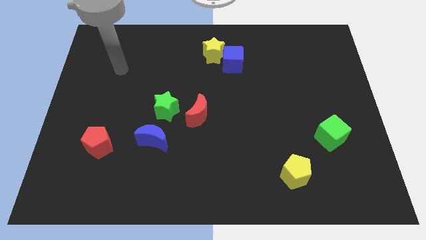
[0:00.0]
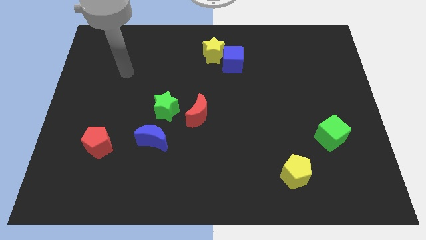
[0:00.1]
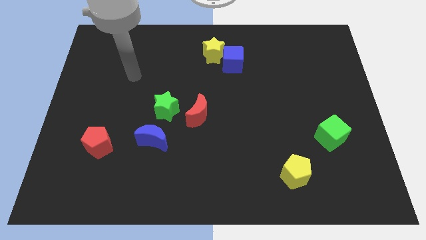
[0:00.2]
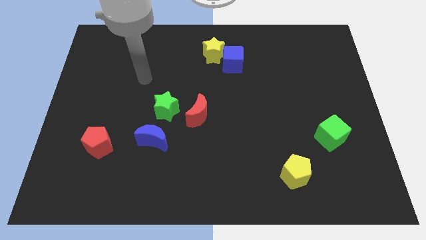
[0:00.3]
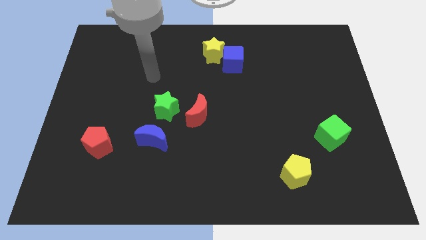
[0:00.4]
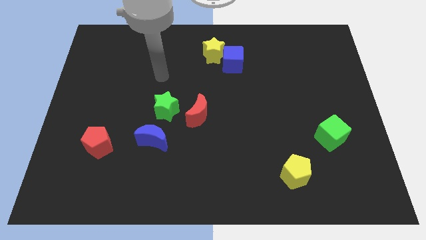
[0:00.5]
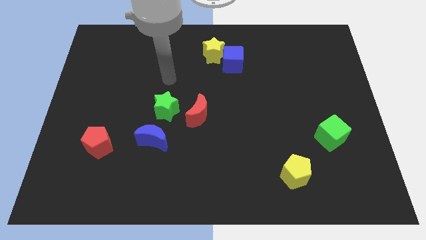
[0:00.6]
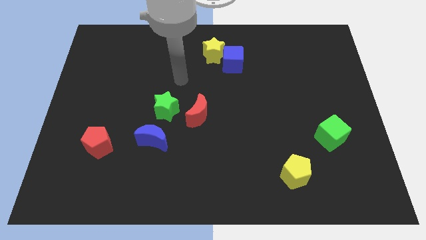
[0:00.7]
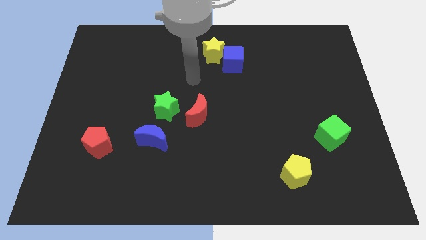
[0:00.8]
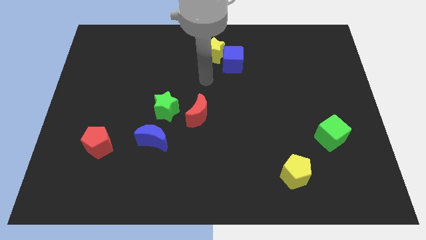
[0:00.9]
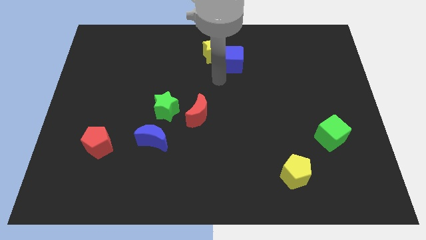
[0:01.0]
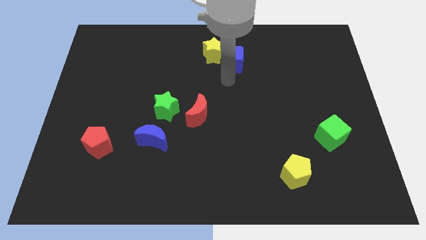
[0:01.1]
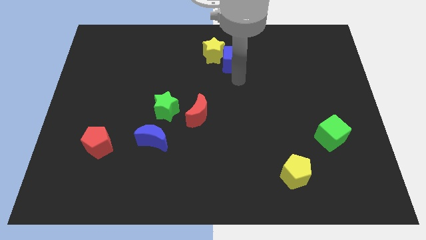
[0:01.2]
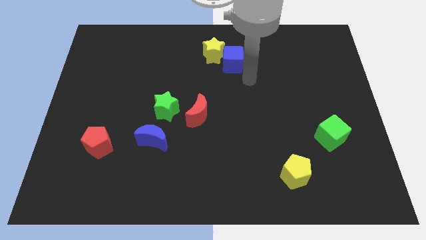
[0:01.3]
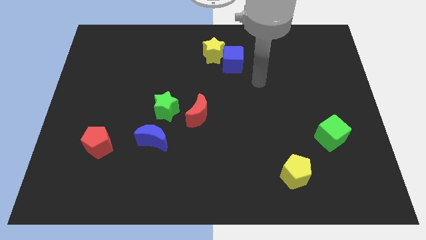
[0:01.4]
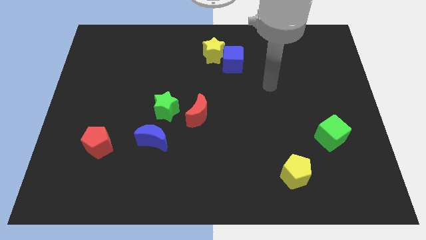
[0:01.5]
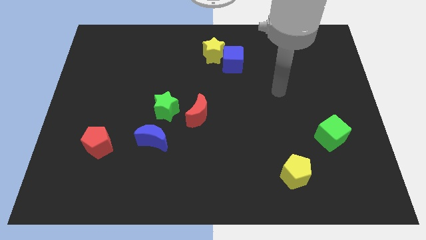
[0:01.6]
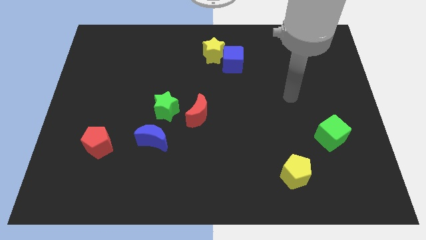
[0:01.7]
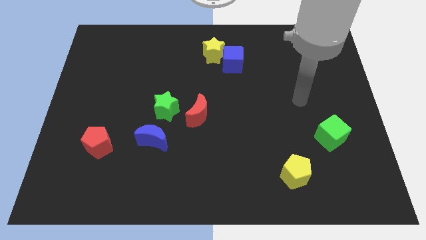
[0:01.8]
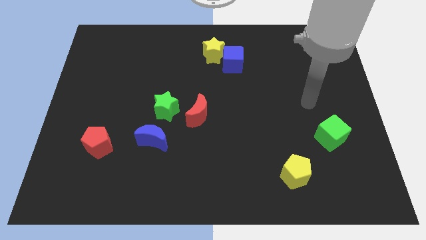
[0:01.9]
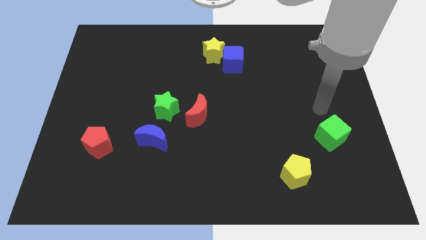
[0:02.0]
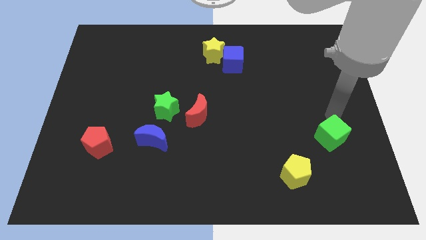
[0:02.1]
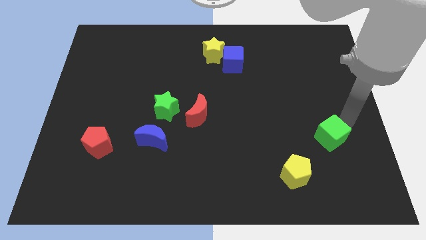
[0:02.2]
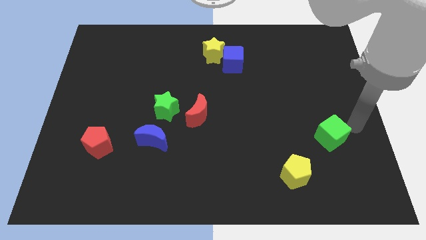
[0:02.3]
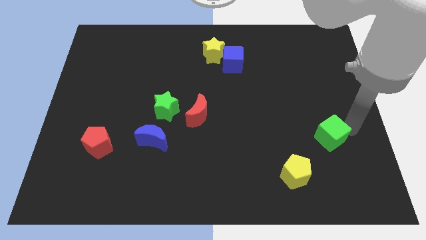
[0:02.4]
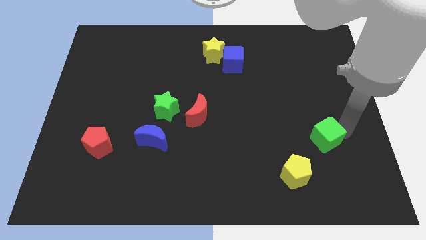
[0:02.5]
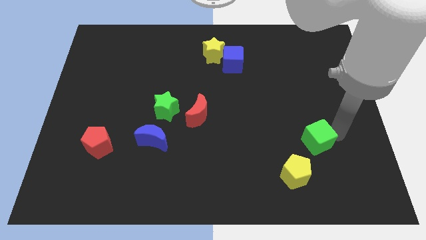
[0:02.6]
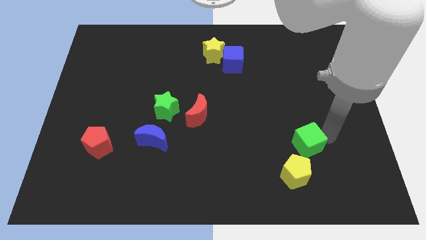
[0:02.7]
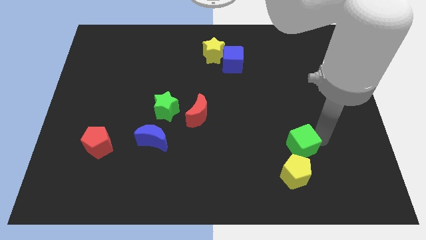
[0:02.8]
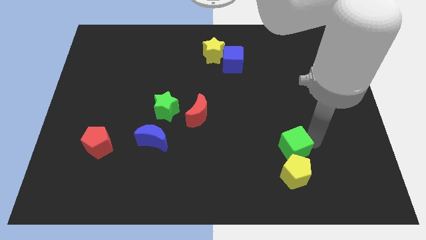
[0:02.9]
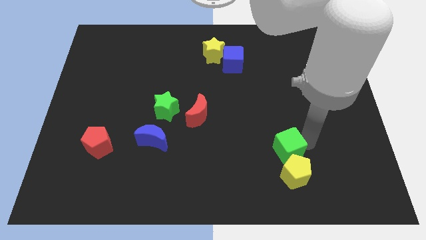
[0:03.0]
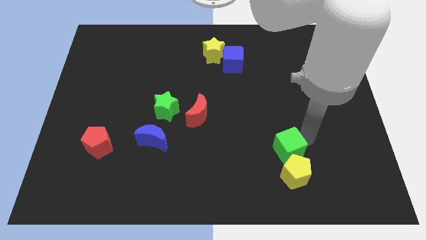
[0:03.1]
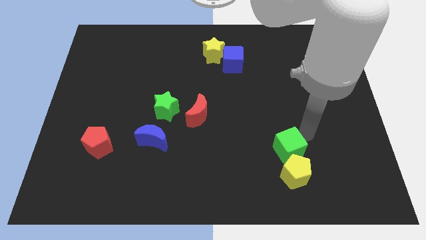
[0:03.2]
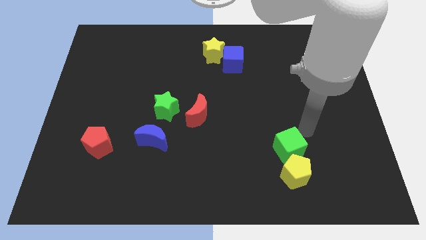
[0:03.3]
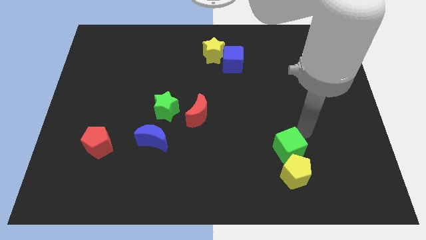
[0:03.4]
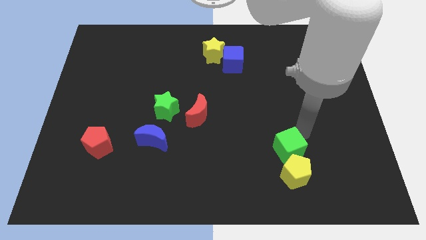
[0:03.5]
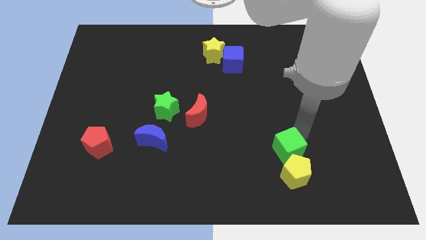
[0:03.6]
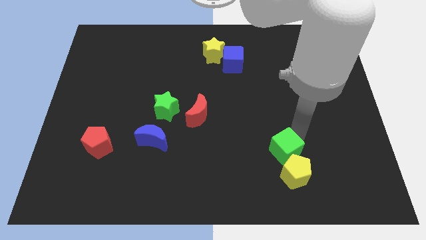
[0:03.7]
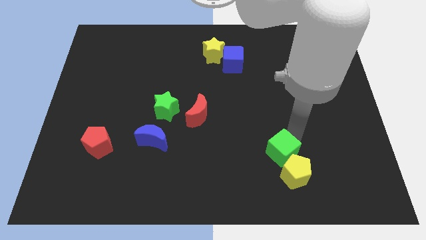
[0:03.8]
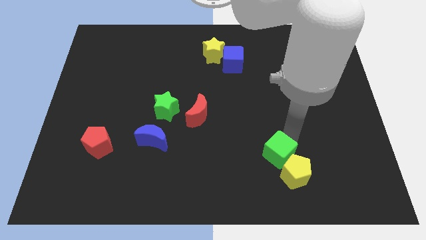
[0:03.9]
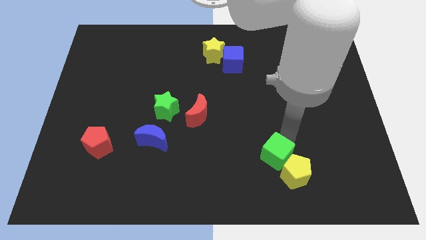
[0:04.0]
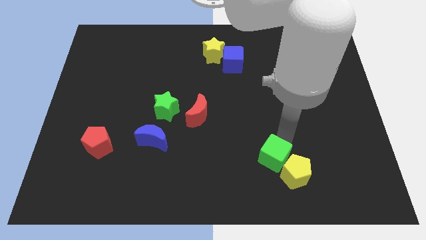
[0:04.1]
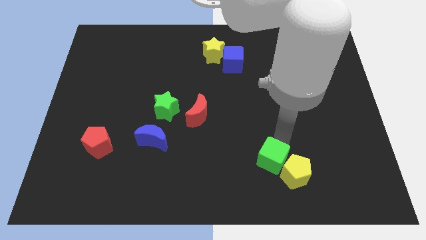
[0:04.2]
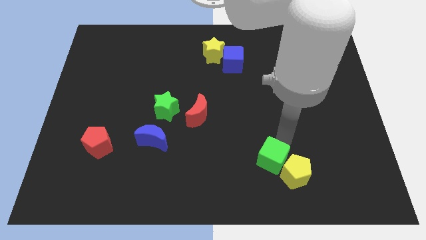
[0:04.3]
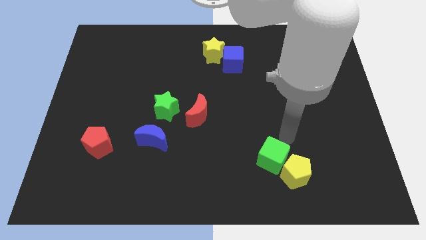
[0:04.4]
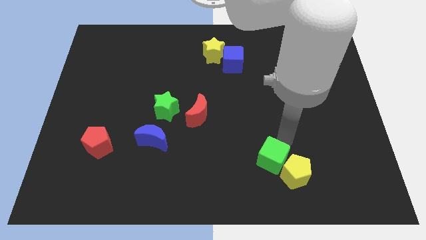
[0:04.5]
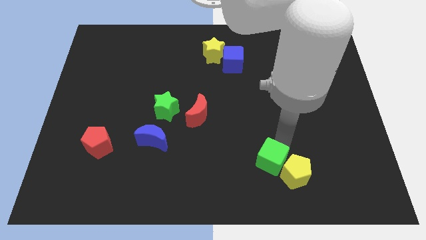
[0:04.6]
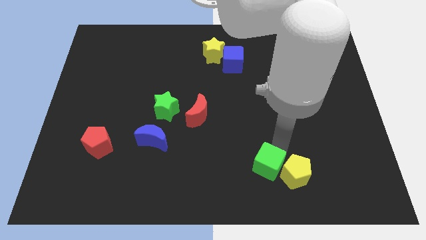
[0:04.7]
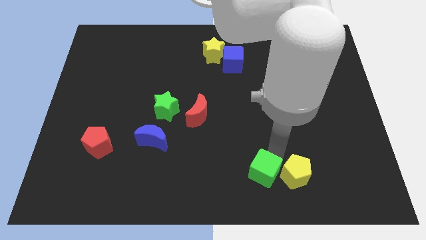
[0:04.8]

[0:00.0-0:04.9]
slide the green cube to the bottom

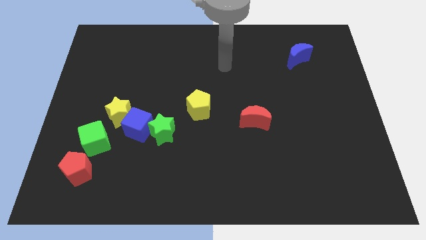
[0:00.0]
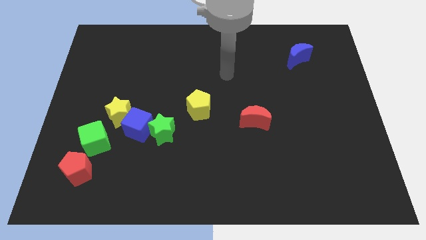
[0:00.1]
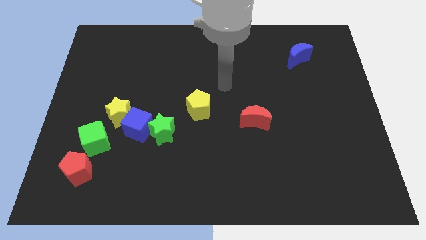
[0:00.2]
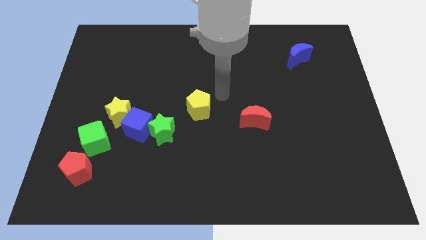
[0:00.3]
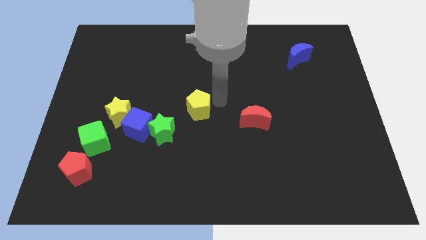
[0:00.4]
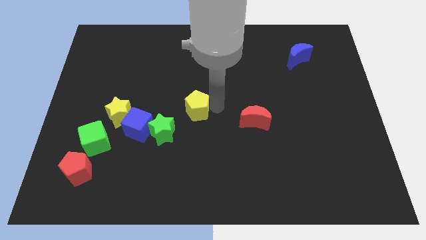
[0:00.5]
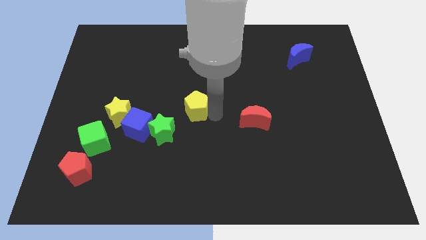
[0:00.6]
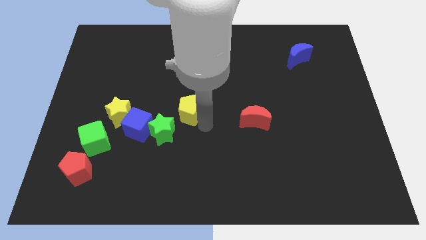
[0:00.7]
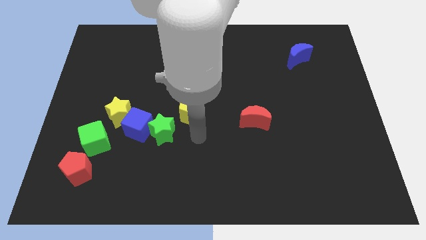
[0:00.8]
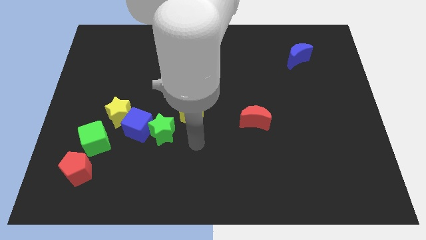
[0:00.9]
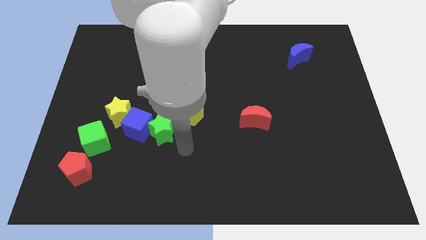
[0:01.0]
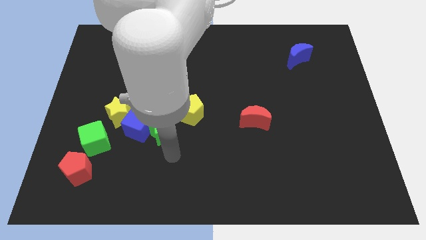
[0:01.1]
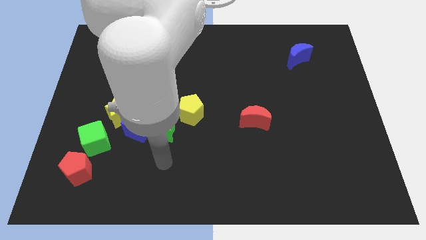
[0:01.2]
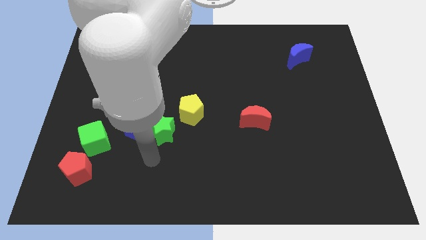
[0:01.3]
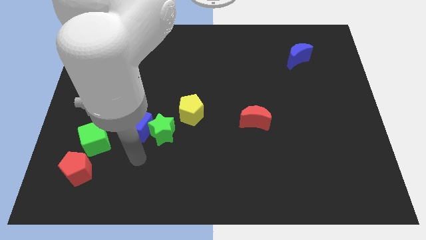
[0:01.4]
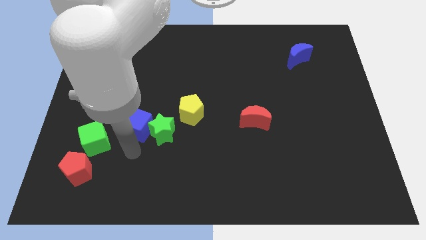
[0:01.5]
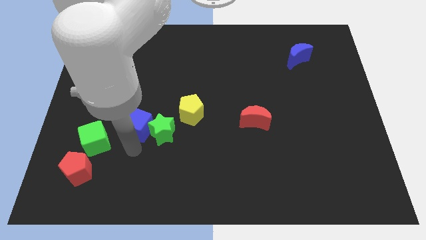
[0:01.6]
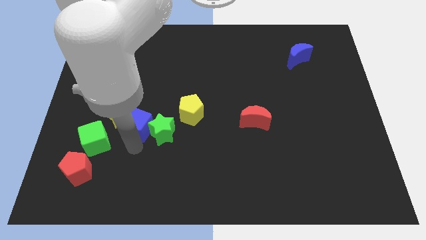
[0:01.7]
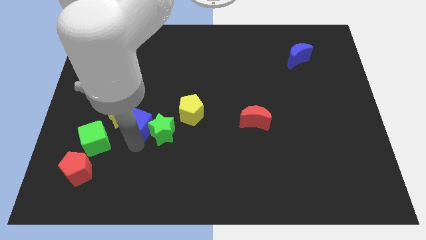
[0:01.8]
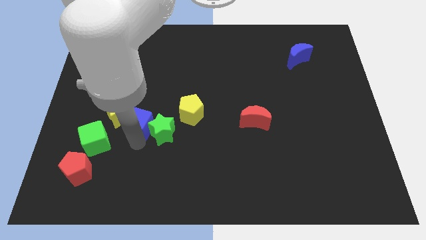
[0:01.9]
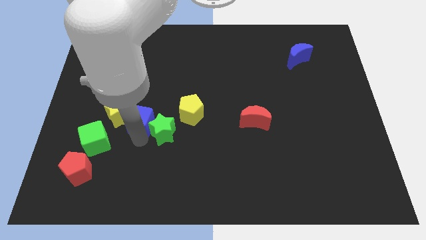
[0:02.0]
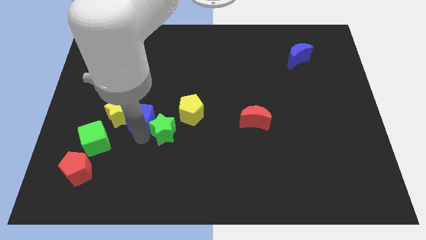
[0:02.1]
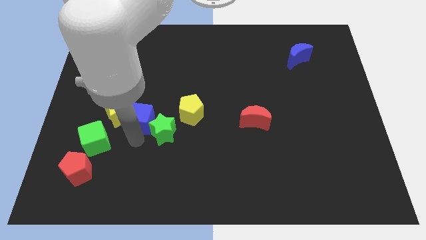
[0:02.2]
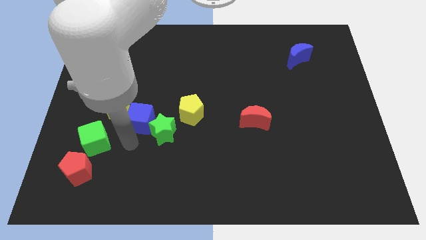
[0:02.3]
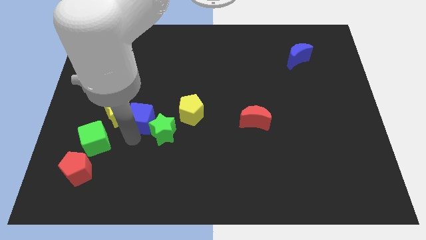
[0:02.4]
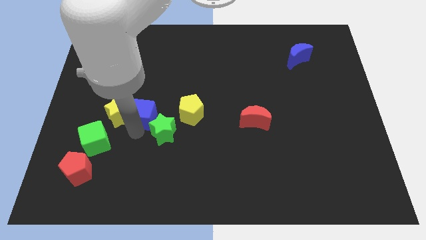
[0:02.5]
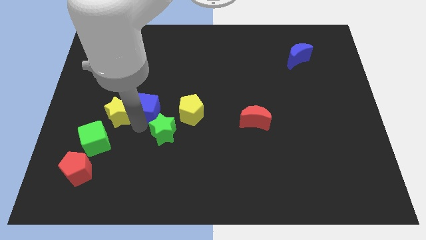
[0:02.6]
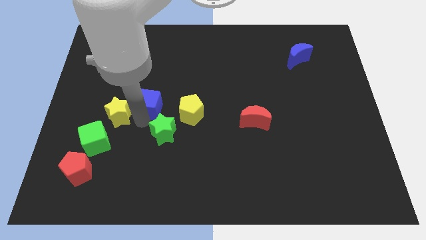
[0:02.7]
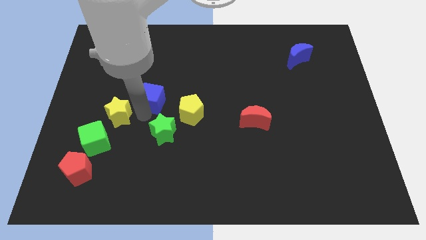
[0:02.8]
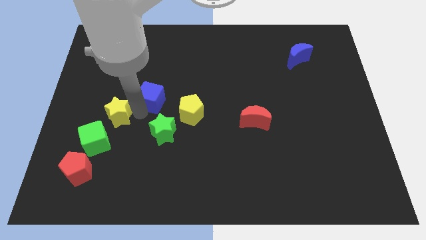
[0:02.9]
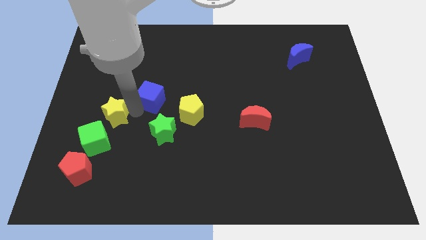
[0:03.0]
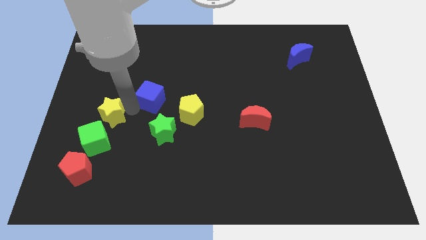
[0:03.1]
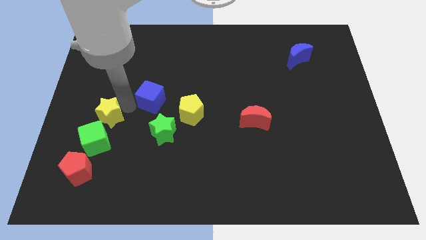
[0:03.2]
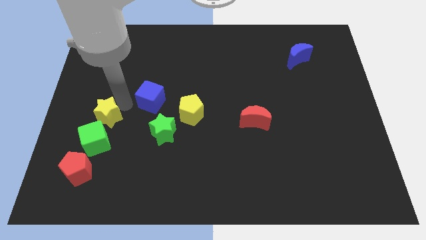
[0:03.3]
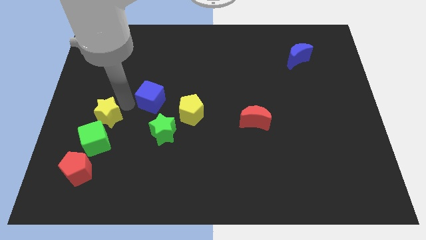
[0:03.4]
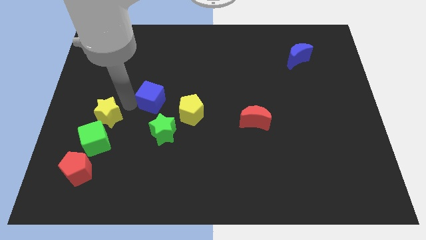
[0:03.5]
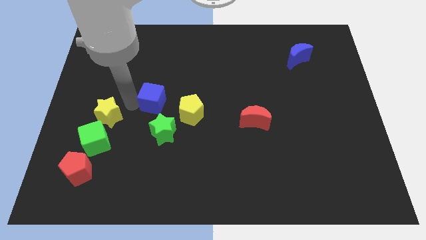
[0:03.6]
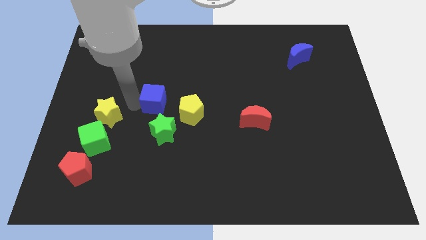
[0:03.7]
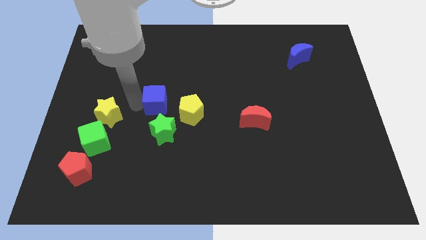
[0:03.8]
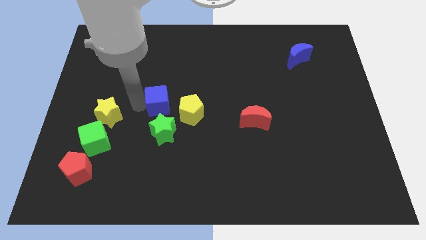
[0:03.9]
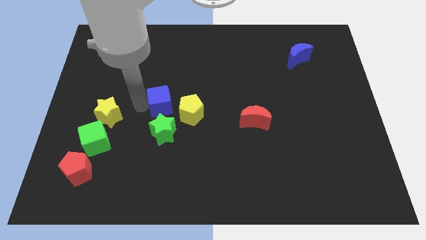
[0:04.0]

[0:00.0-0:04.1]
slide the blue cube to the center
